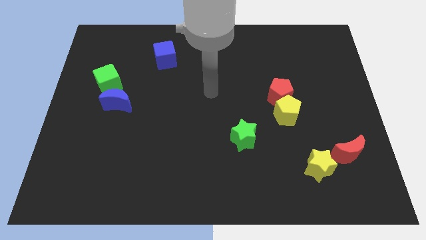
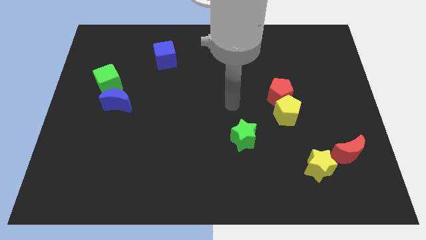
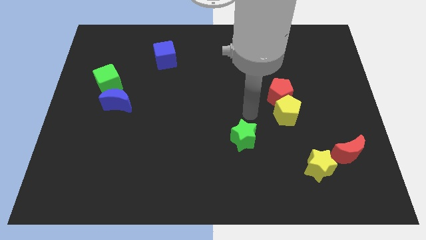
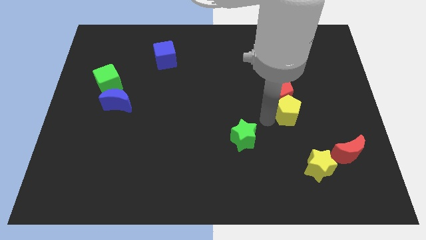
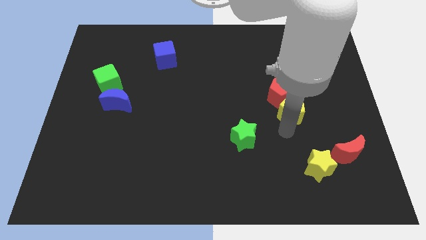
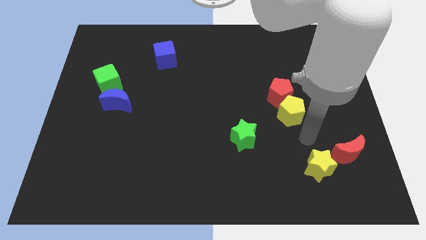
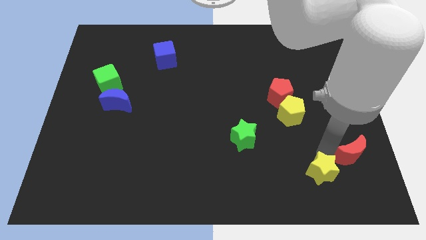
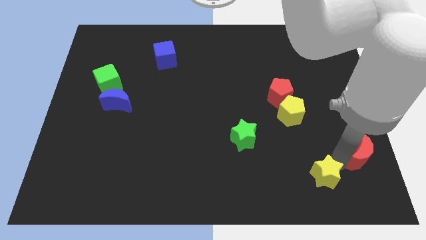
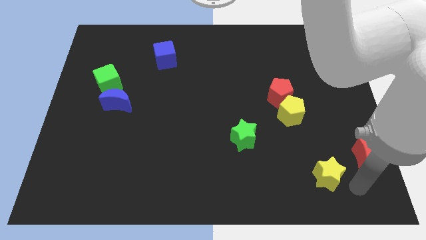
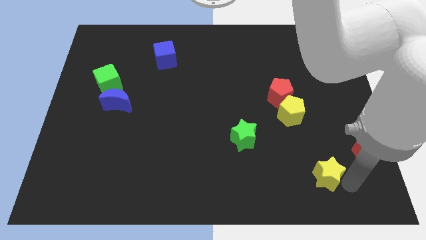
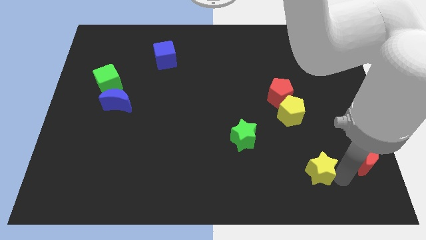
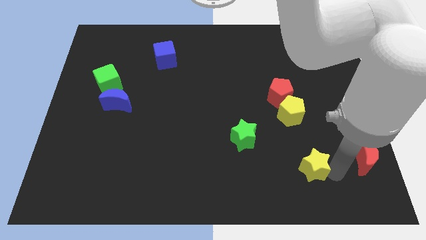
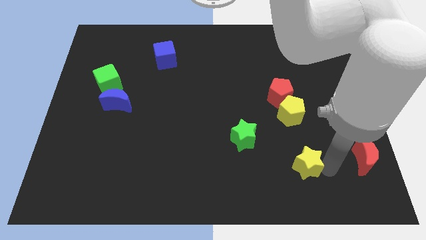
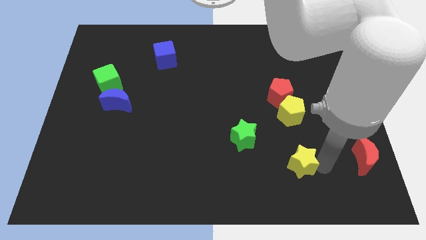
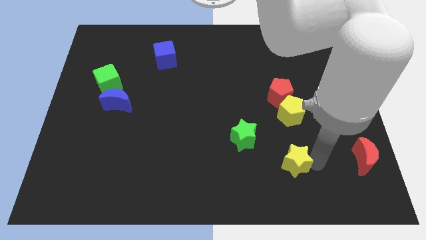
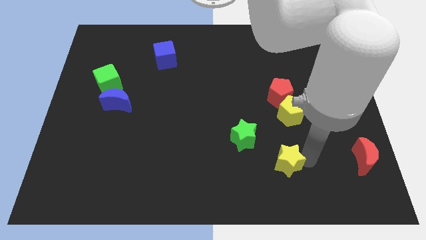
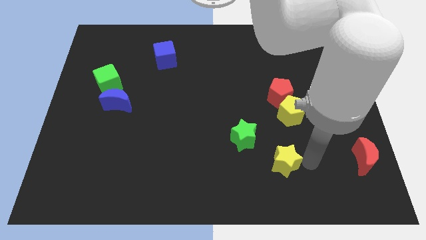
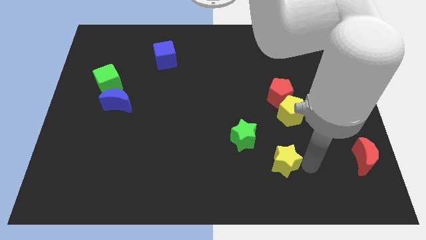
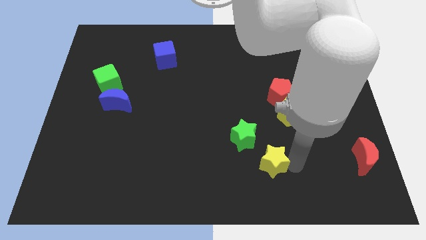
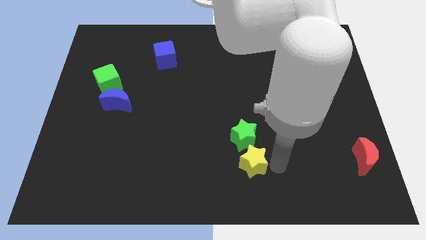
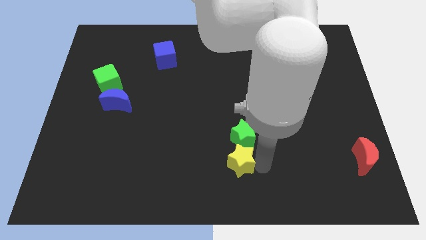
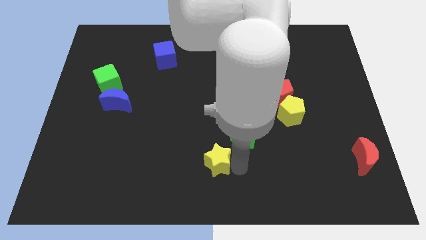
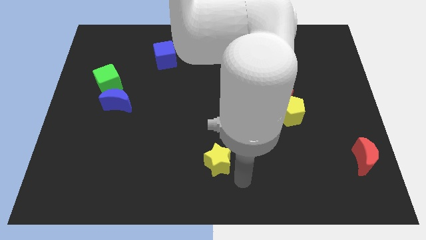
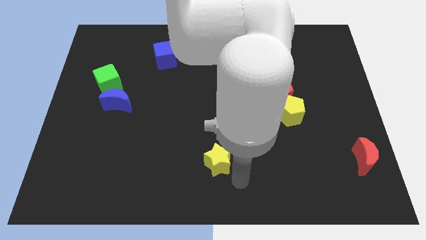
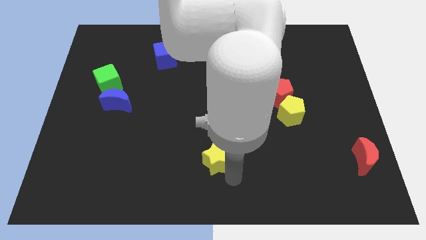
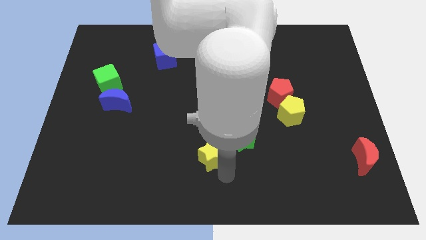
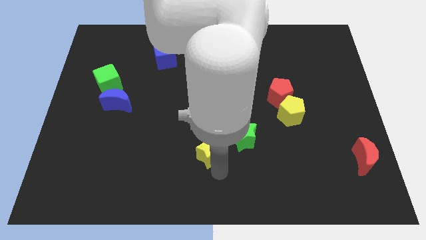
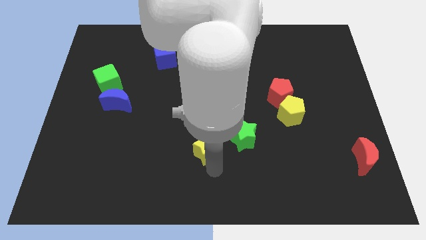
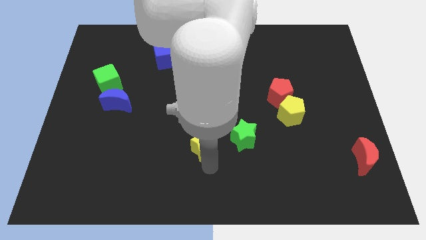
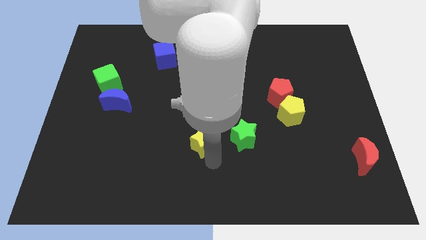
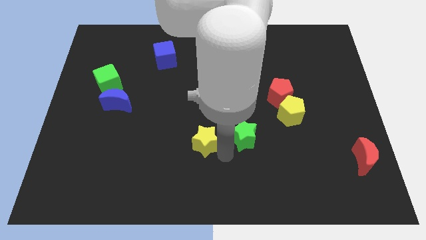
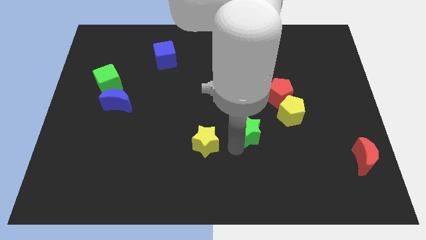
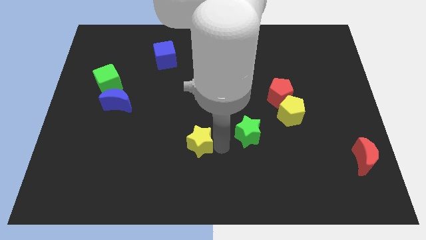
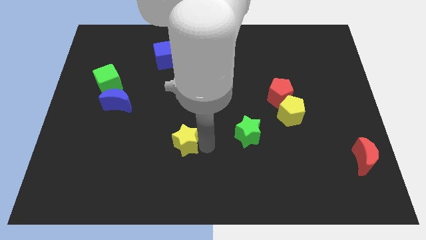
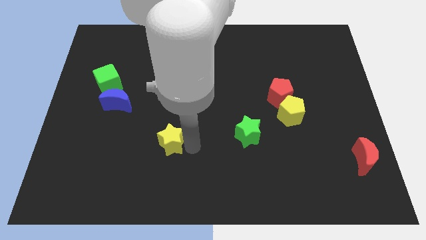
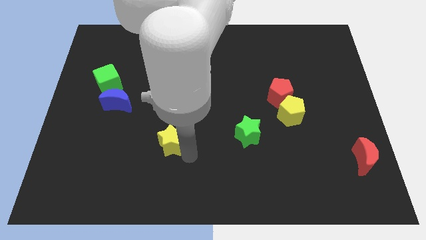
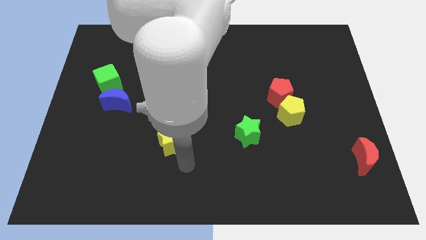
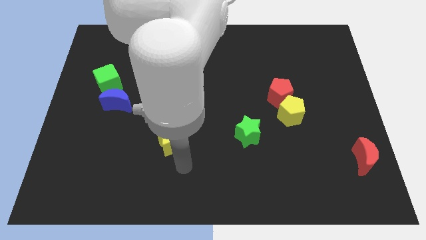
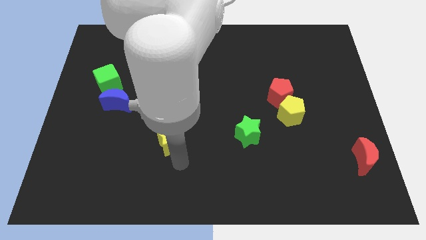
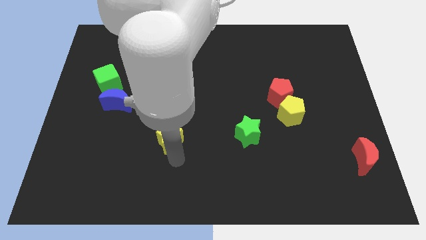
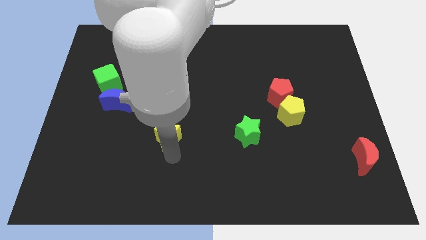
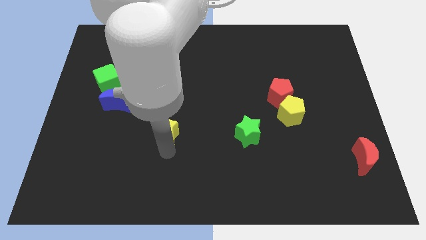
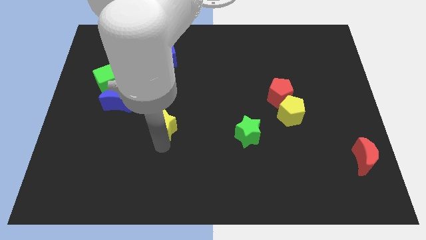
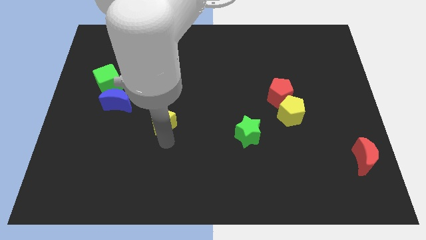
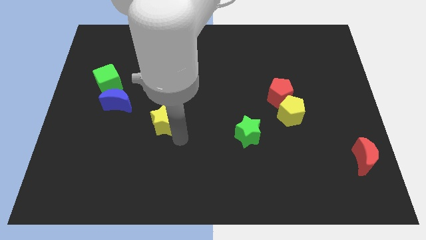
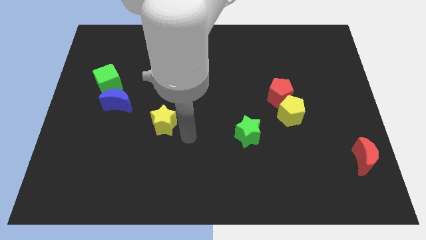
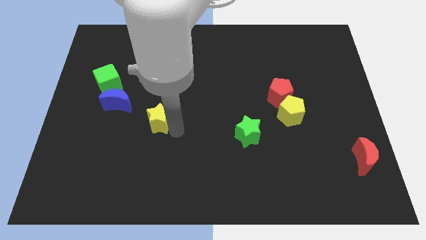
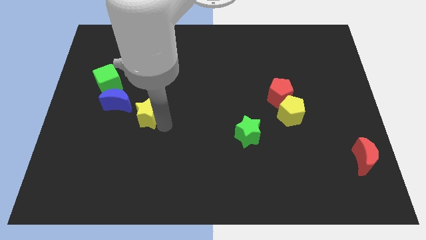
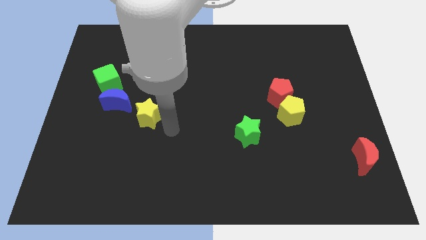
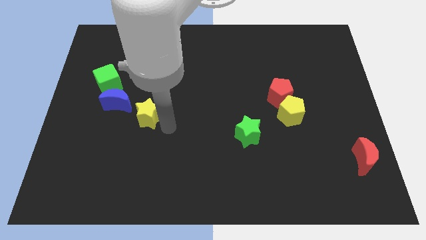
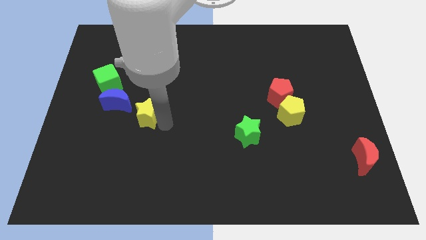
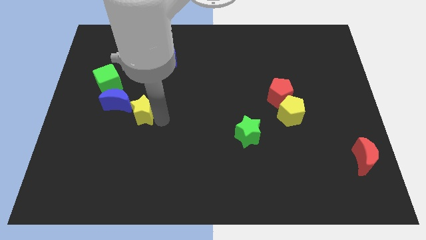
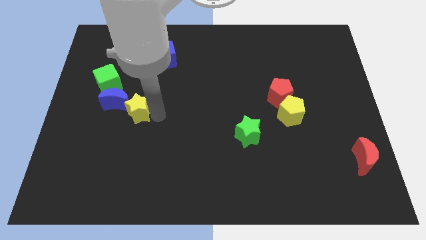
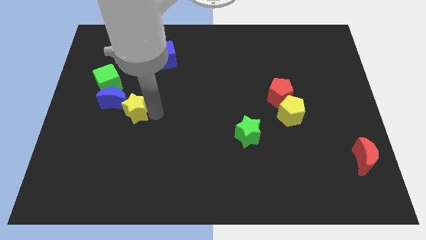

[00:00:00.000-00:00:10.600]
put the yellow star close to the blue moon

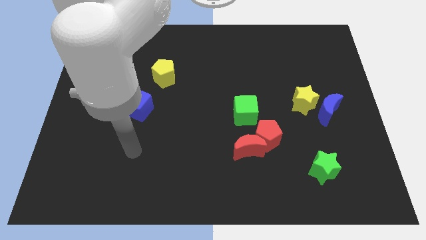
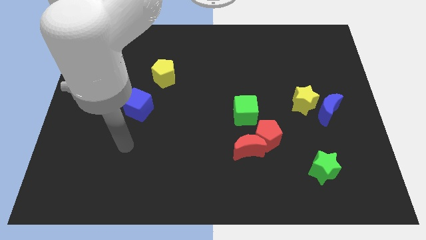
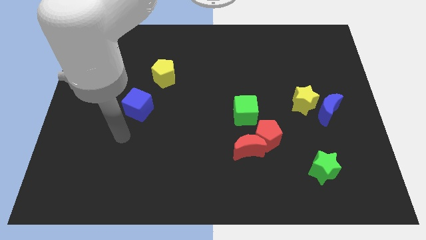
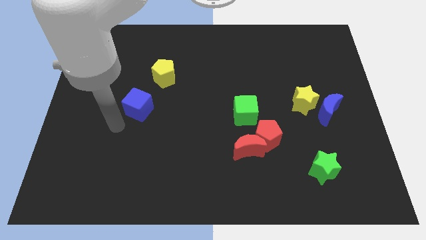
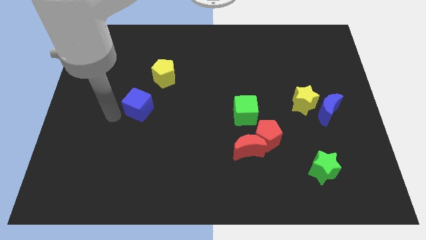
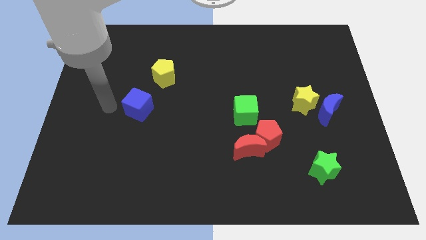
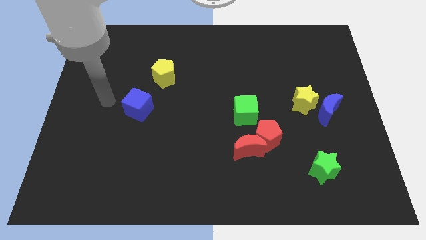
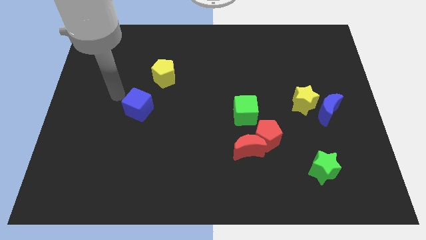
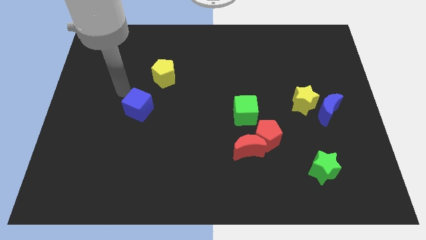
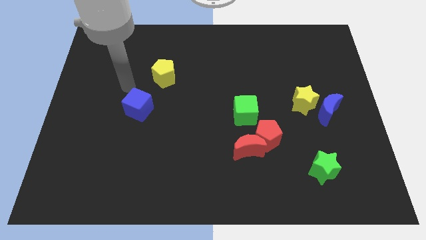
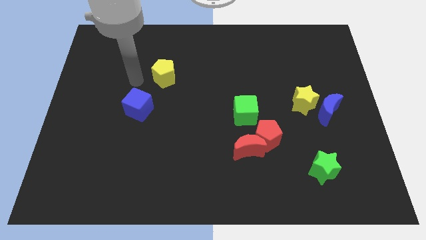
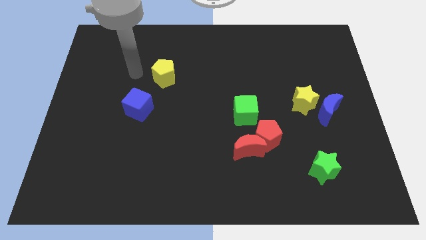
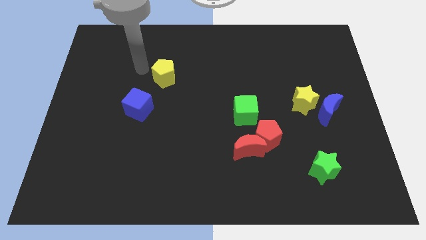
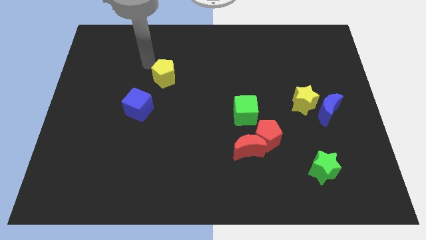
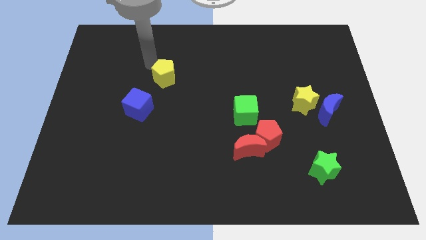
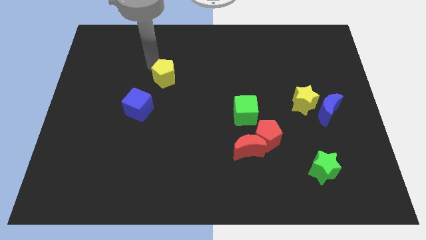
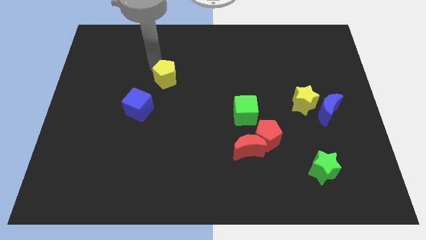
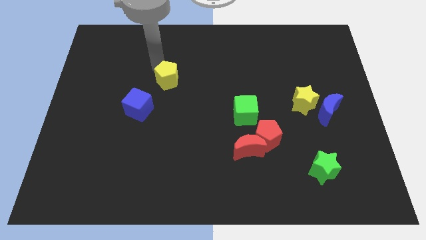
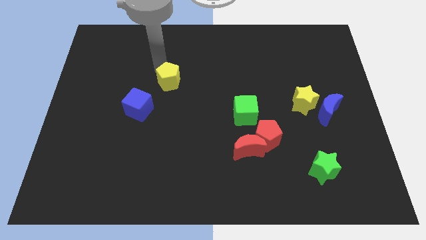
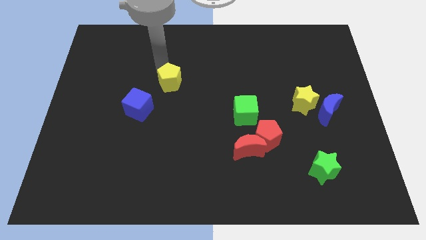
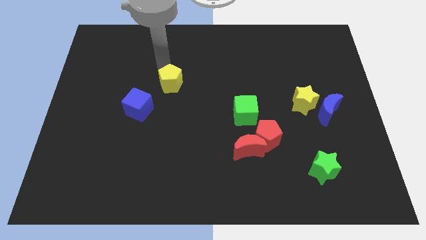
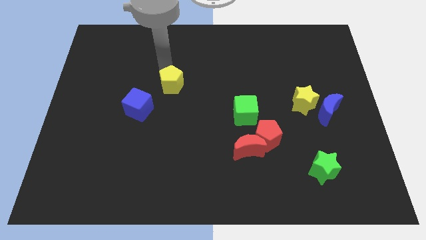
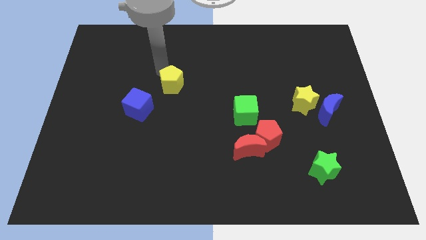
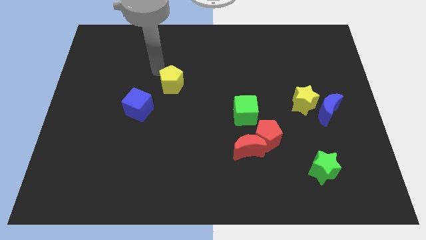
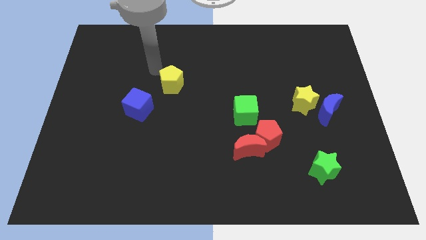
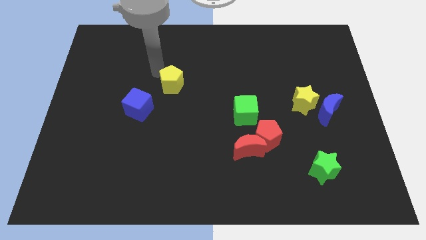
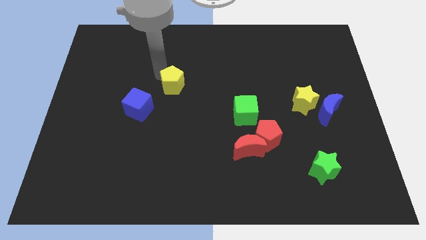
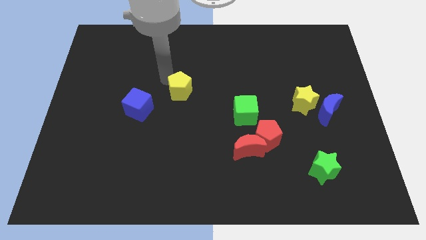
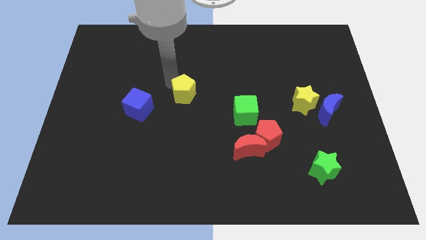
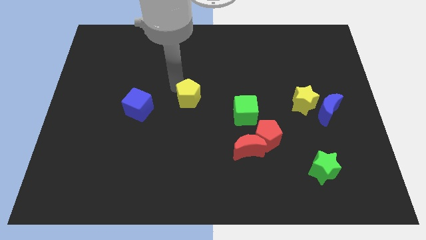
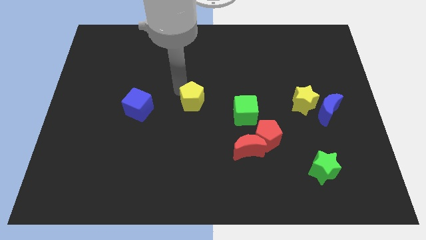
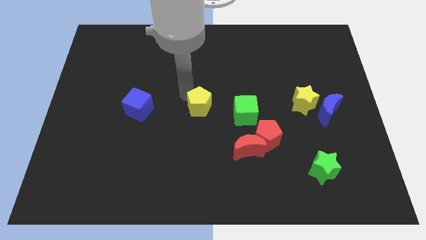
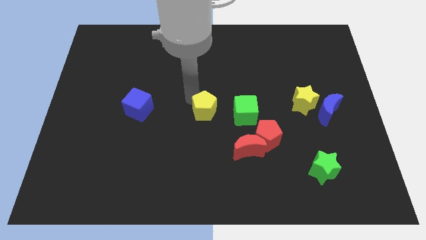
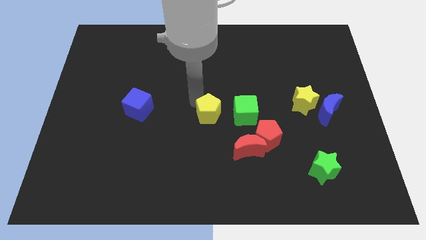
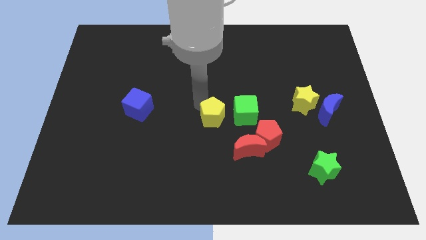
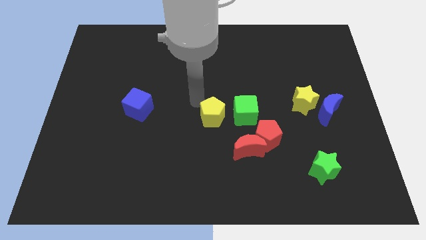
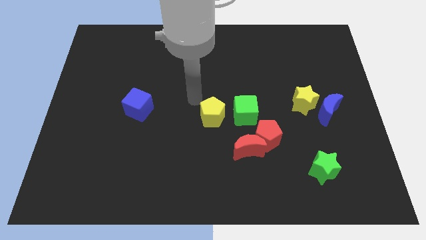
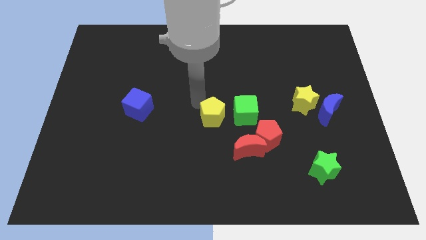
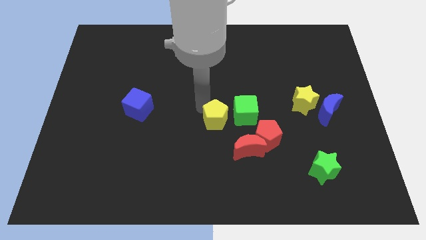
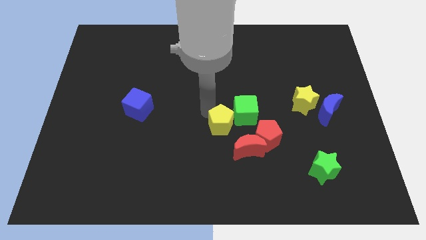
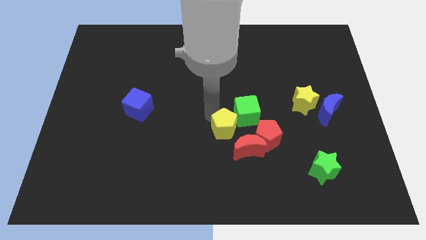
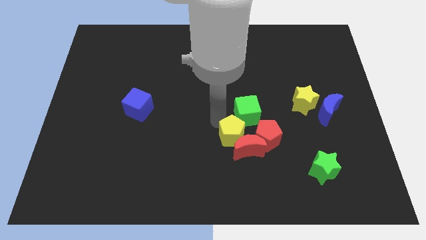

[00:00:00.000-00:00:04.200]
put the yellow pentagon next to the red moon
